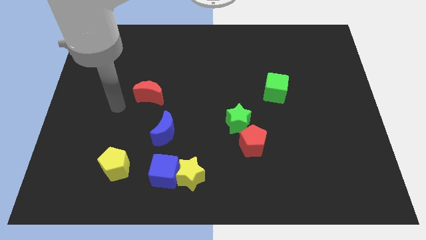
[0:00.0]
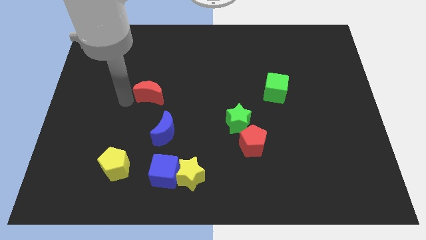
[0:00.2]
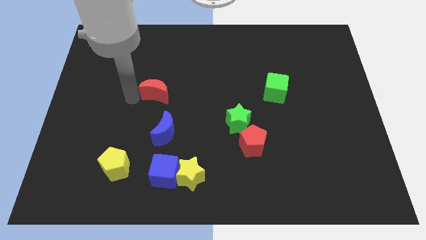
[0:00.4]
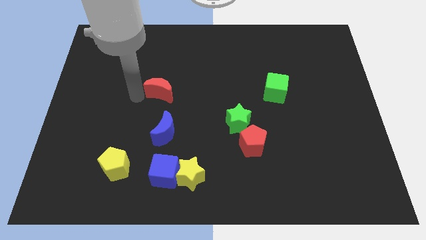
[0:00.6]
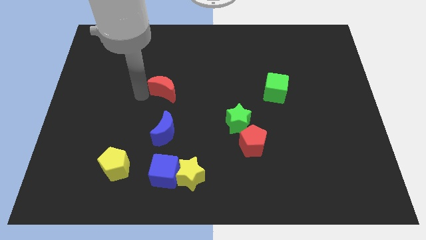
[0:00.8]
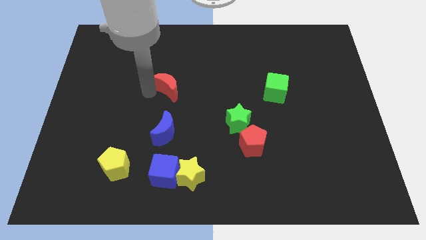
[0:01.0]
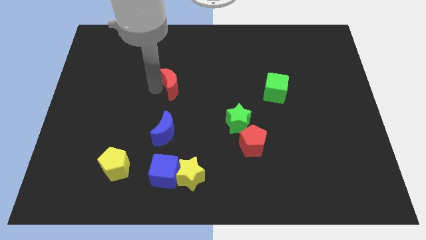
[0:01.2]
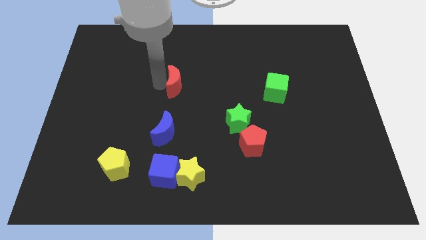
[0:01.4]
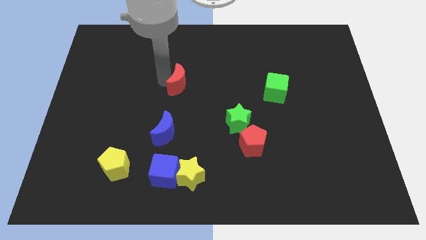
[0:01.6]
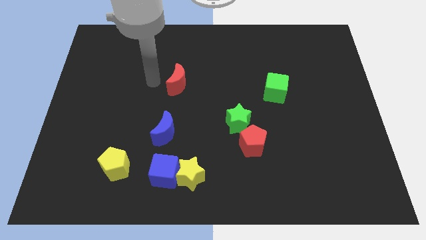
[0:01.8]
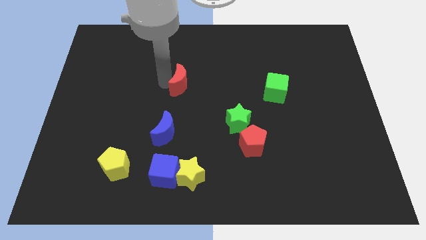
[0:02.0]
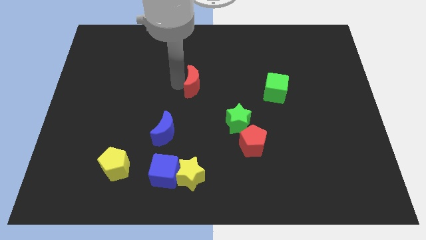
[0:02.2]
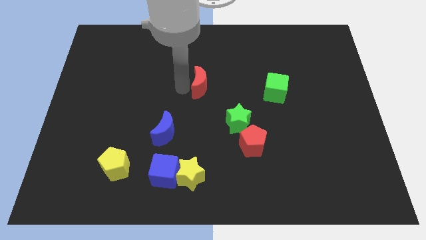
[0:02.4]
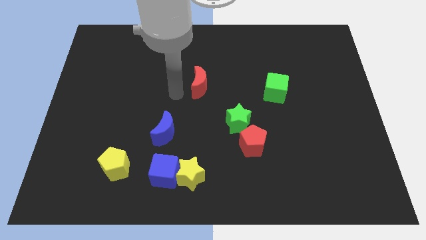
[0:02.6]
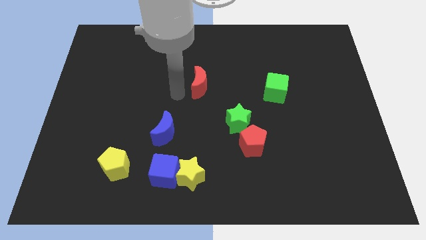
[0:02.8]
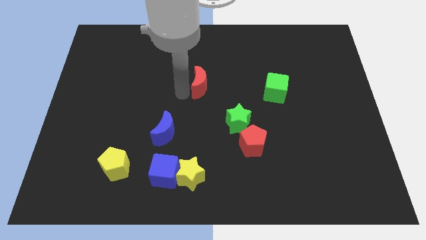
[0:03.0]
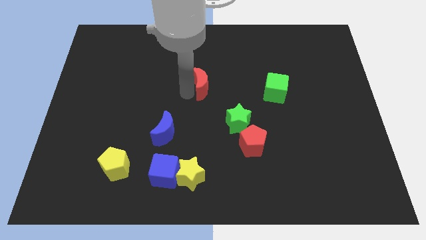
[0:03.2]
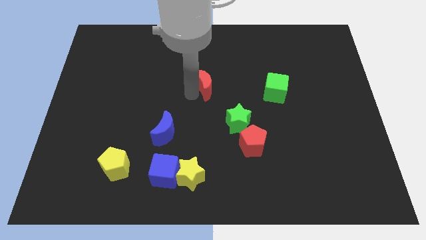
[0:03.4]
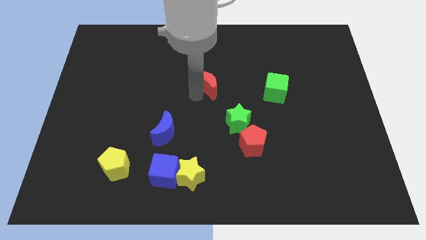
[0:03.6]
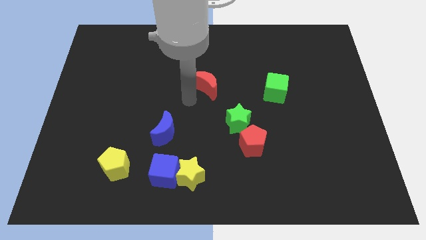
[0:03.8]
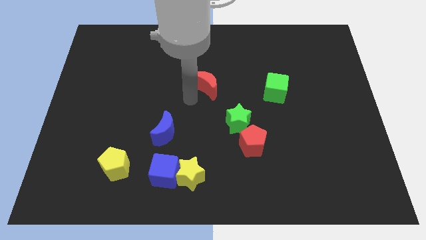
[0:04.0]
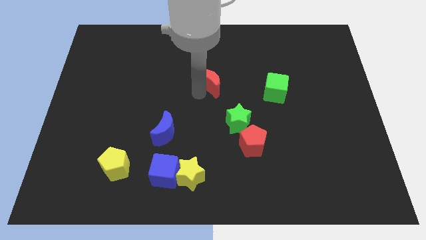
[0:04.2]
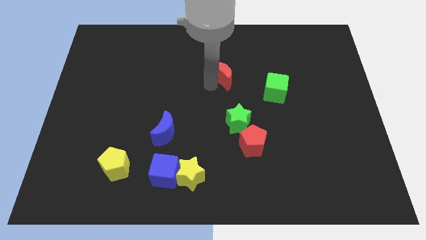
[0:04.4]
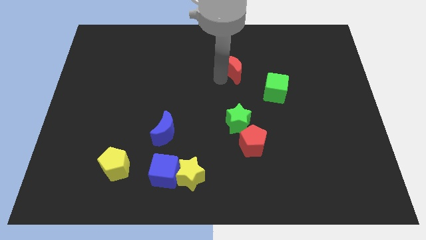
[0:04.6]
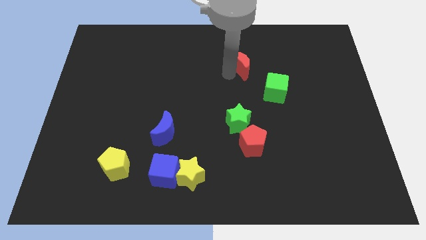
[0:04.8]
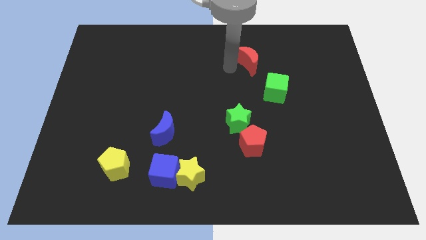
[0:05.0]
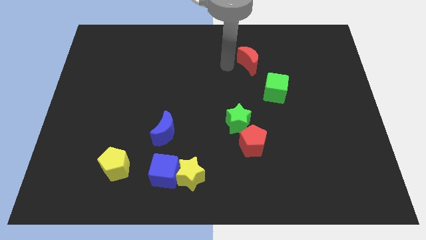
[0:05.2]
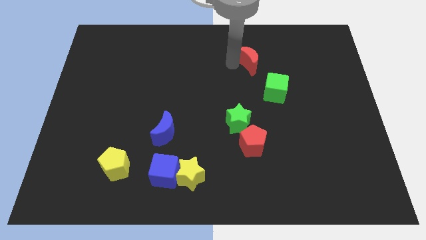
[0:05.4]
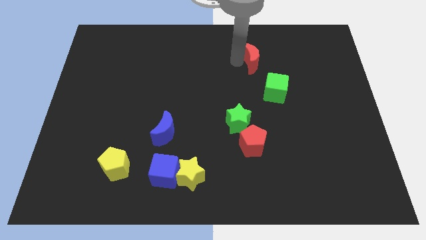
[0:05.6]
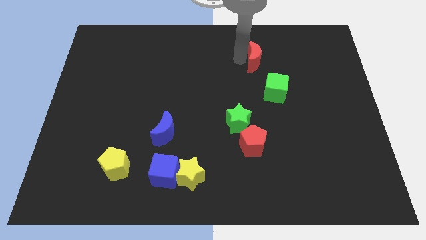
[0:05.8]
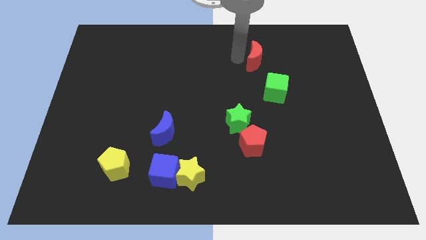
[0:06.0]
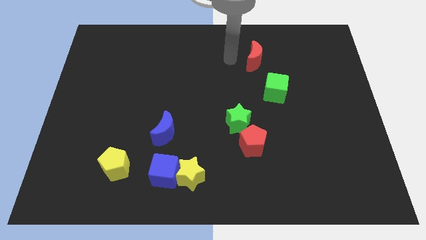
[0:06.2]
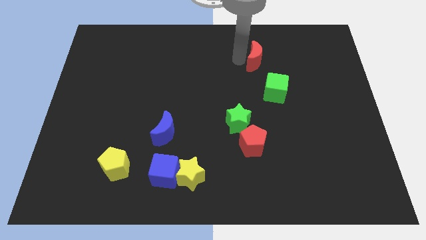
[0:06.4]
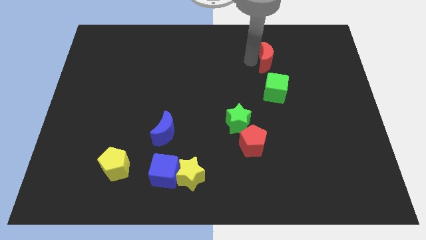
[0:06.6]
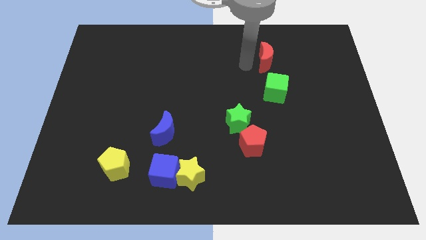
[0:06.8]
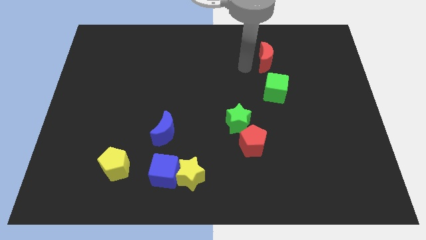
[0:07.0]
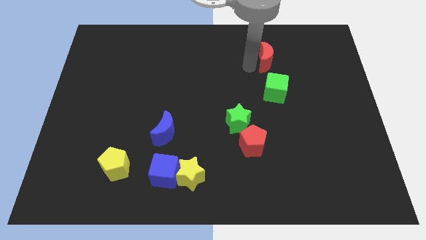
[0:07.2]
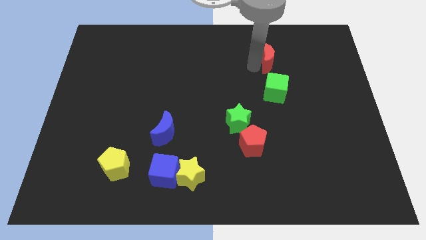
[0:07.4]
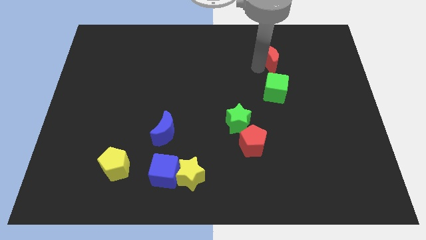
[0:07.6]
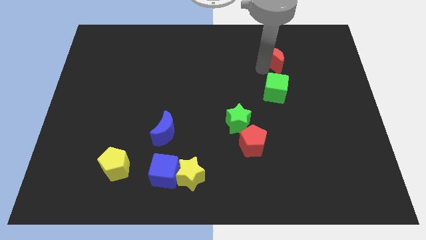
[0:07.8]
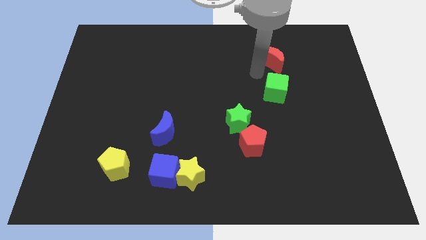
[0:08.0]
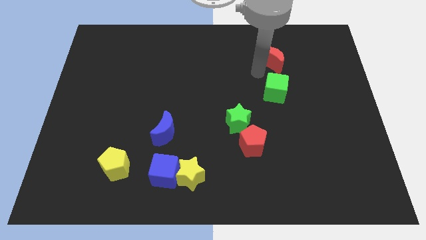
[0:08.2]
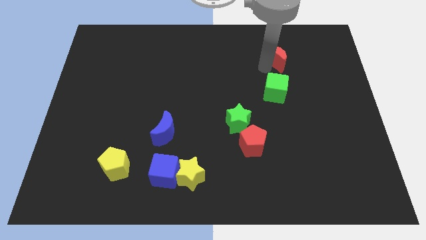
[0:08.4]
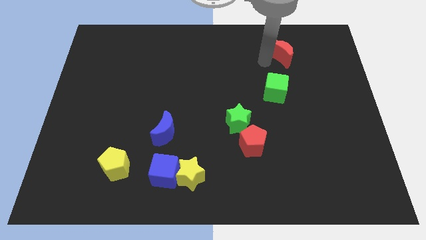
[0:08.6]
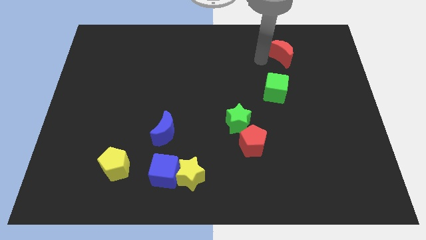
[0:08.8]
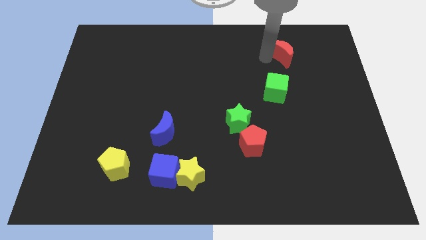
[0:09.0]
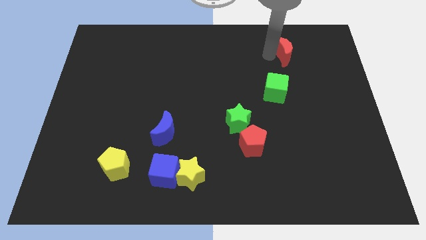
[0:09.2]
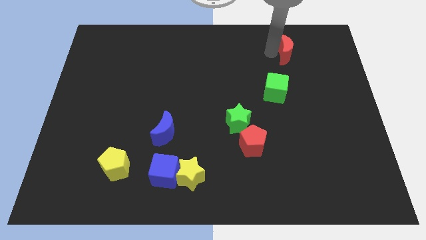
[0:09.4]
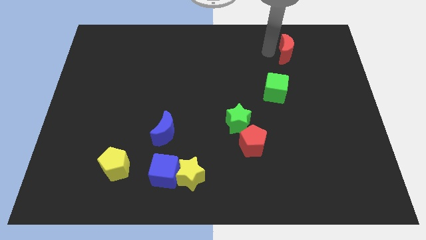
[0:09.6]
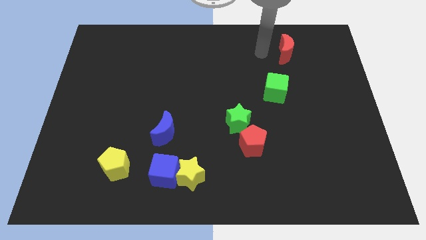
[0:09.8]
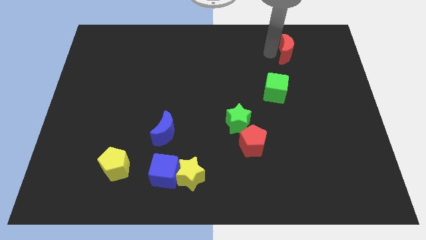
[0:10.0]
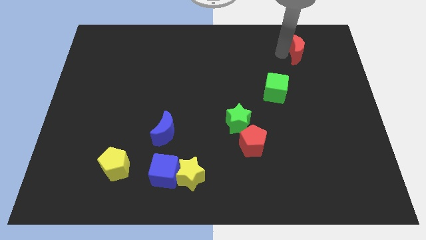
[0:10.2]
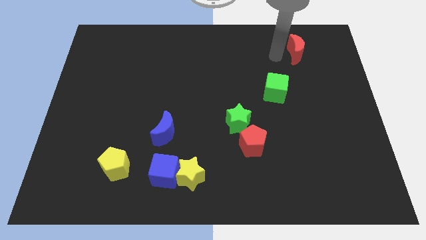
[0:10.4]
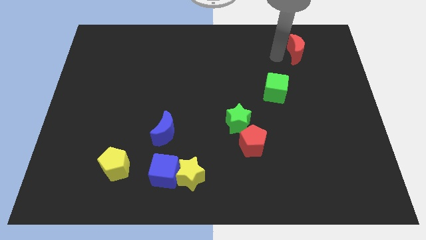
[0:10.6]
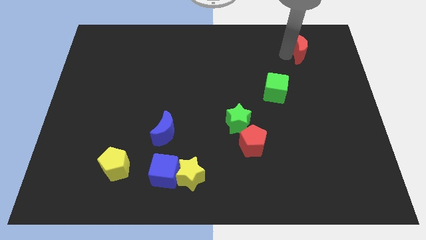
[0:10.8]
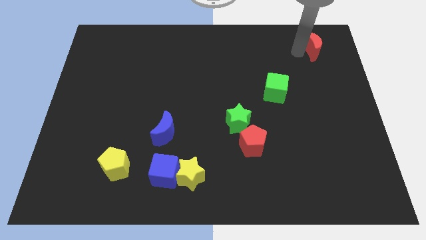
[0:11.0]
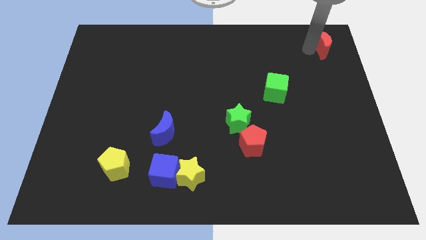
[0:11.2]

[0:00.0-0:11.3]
push the red moon to the top right of the board

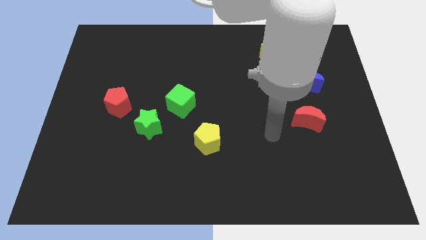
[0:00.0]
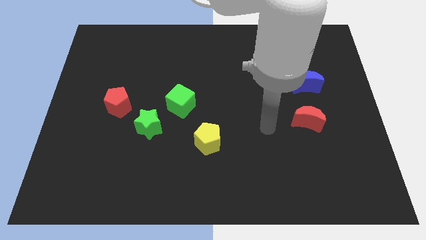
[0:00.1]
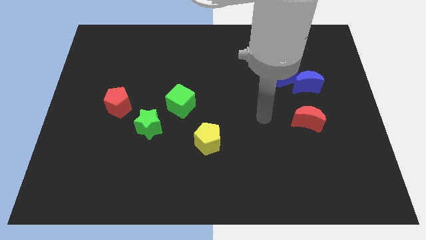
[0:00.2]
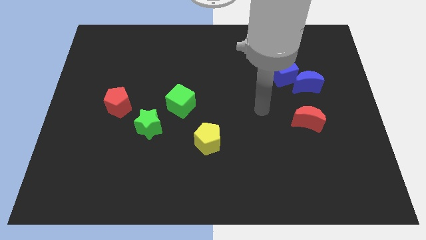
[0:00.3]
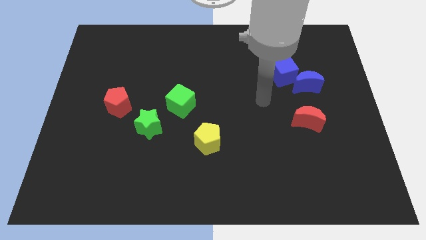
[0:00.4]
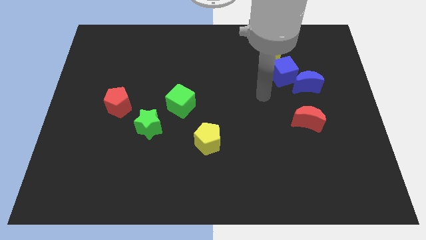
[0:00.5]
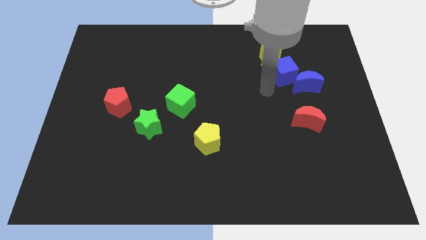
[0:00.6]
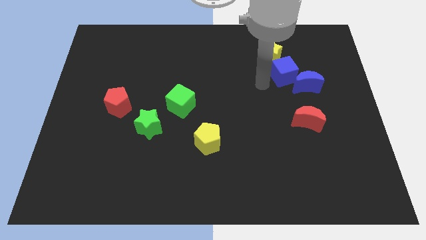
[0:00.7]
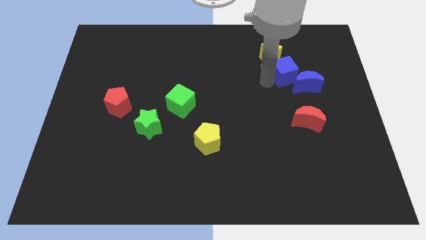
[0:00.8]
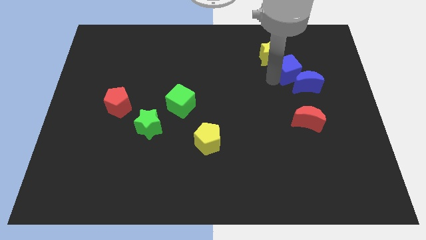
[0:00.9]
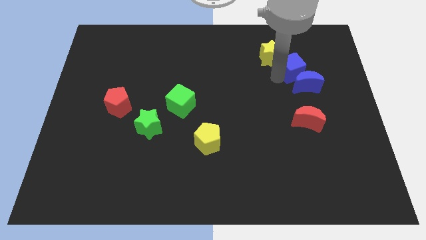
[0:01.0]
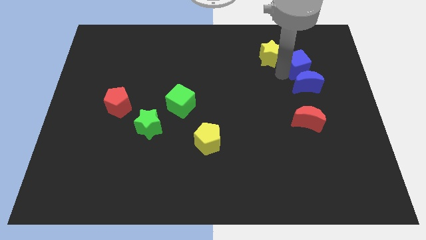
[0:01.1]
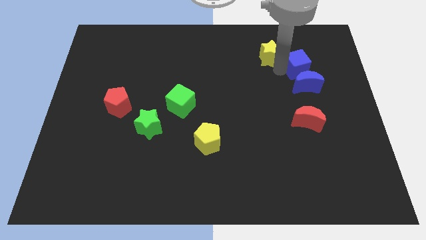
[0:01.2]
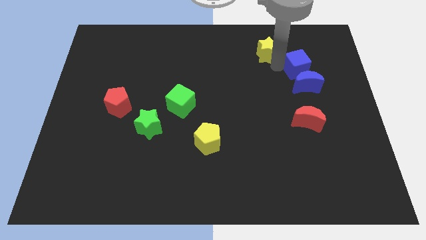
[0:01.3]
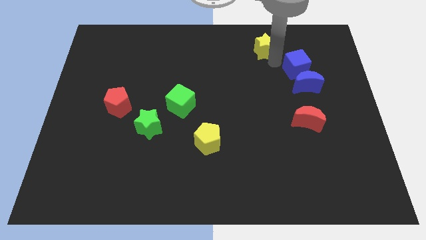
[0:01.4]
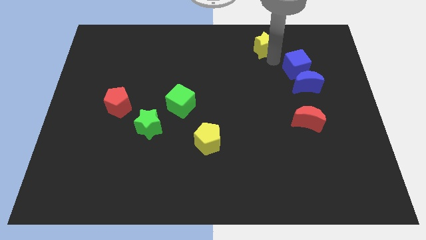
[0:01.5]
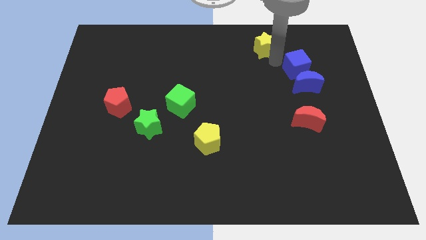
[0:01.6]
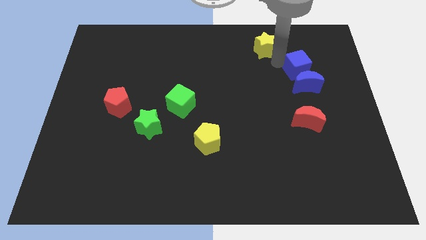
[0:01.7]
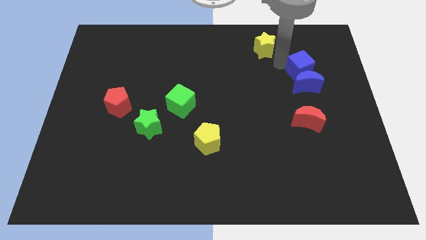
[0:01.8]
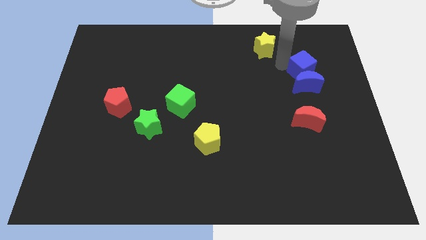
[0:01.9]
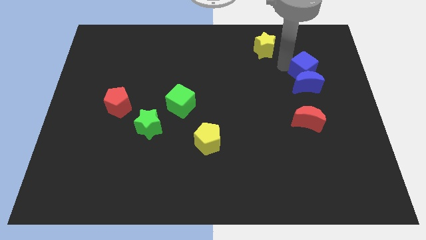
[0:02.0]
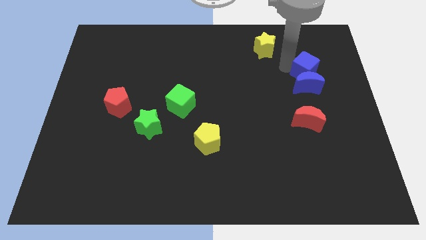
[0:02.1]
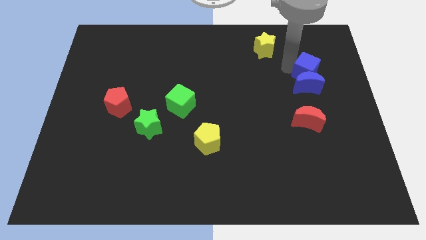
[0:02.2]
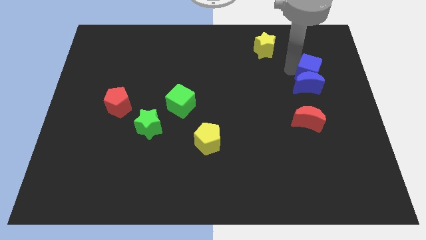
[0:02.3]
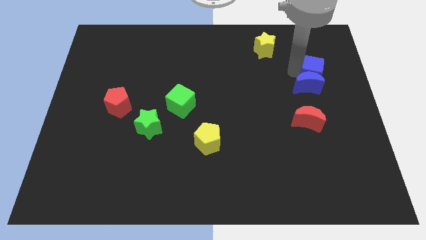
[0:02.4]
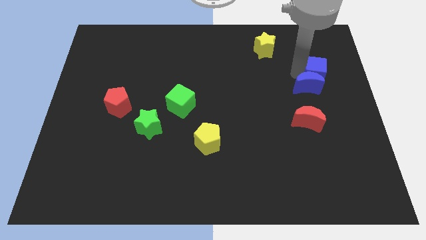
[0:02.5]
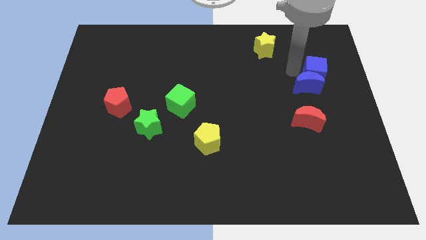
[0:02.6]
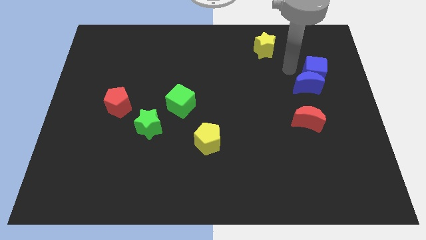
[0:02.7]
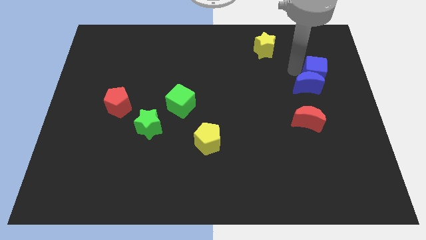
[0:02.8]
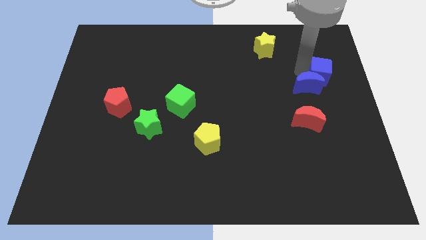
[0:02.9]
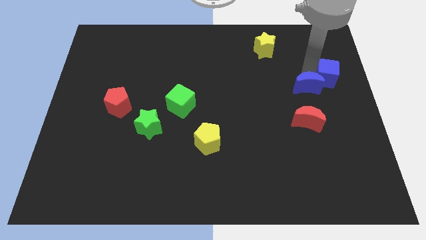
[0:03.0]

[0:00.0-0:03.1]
put the blue cube to the right side of the board
